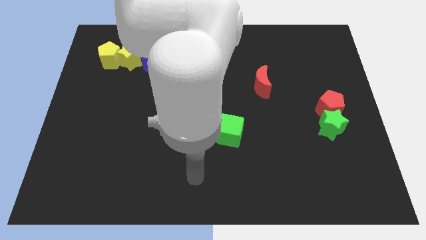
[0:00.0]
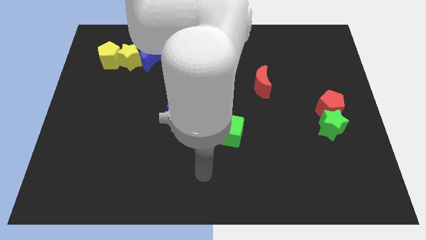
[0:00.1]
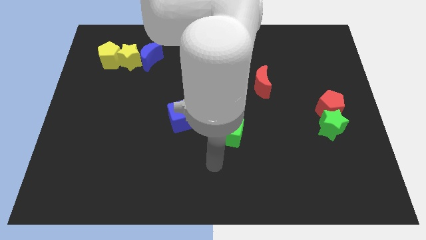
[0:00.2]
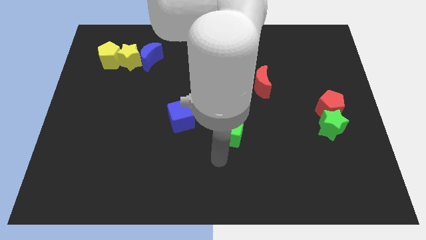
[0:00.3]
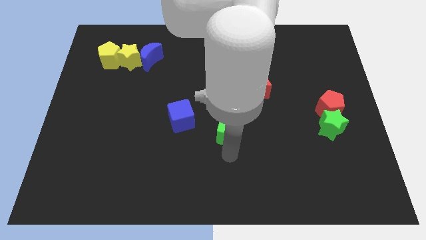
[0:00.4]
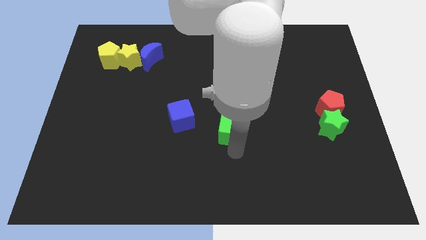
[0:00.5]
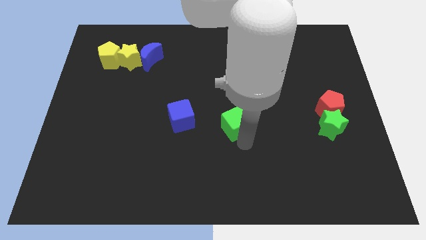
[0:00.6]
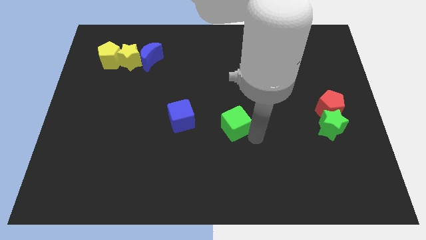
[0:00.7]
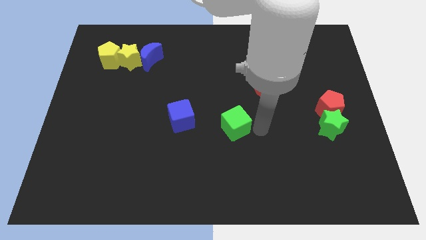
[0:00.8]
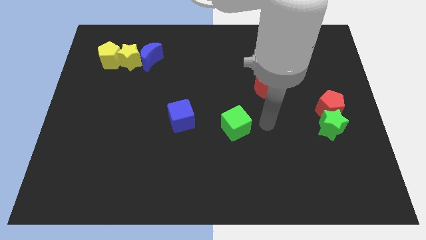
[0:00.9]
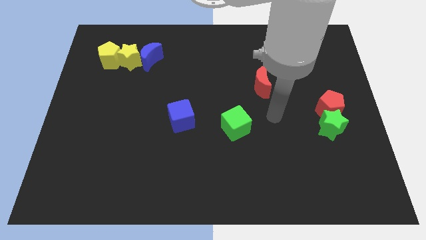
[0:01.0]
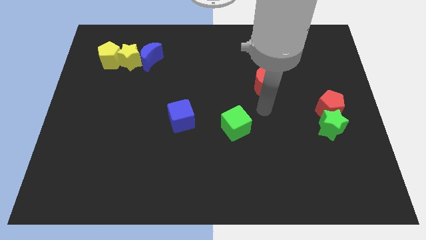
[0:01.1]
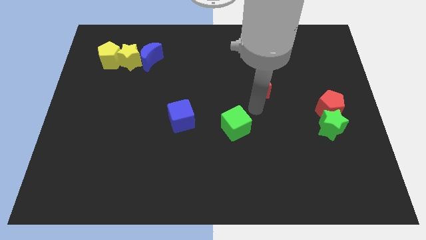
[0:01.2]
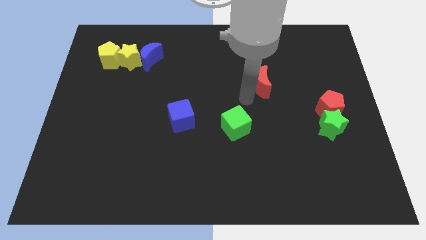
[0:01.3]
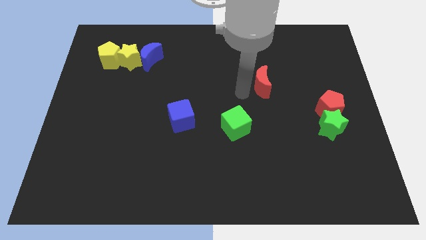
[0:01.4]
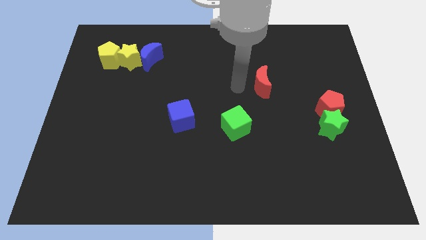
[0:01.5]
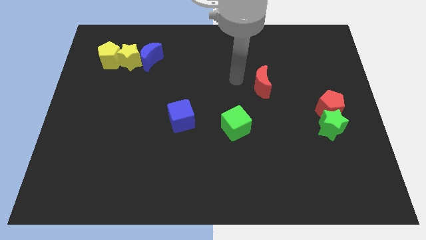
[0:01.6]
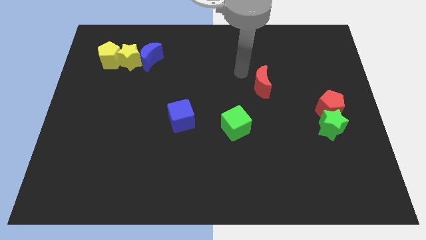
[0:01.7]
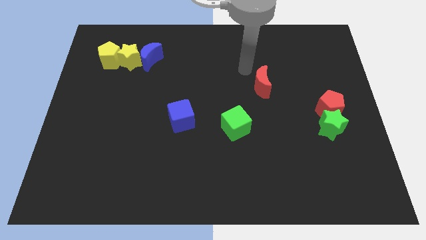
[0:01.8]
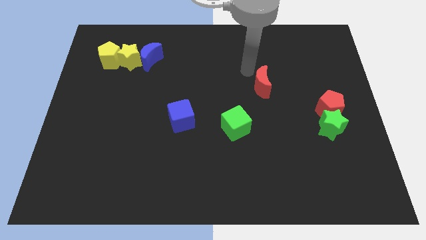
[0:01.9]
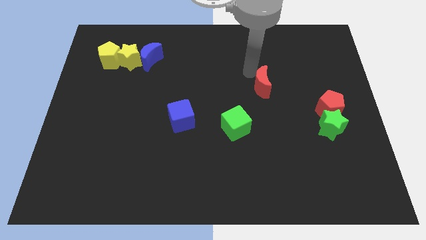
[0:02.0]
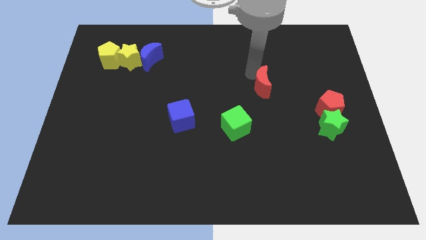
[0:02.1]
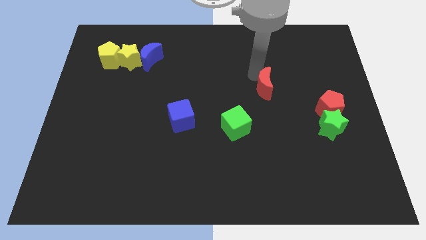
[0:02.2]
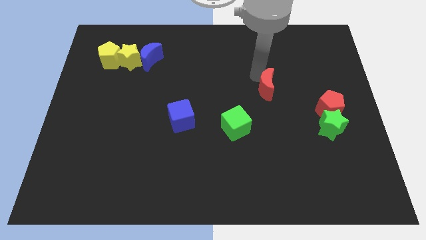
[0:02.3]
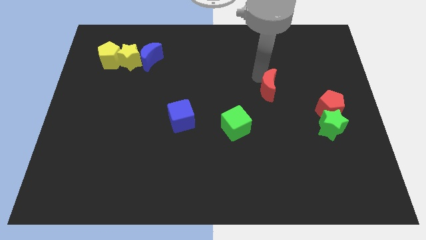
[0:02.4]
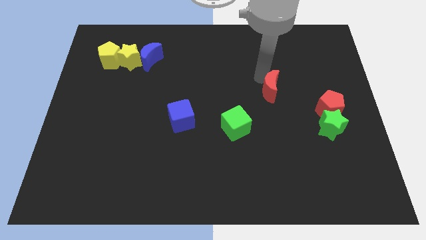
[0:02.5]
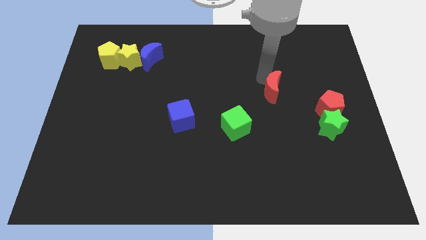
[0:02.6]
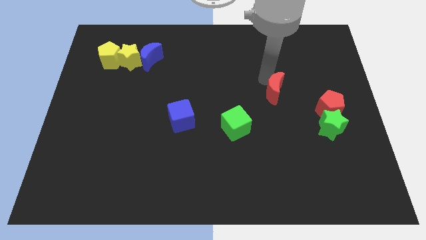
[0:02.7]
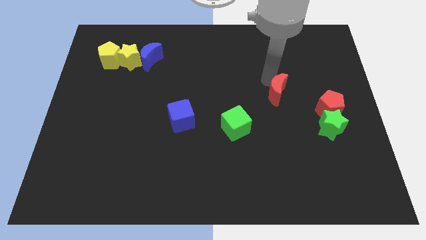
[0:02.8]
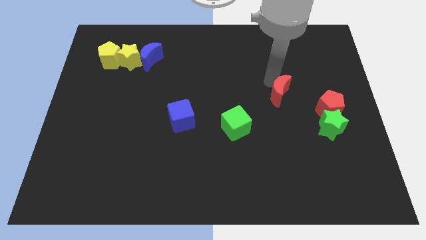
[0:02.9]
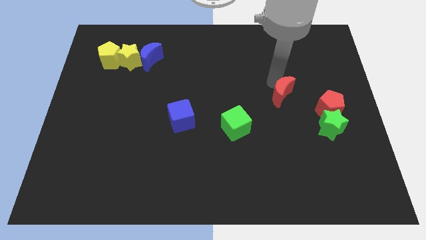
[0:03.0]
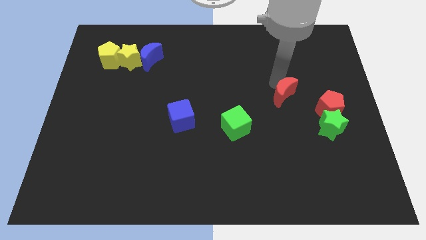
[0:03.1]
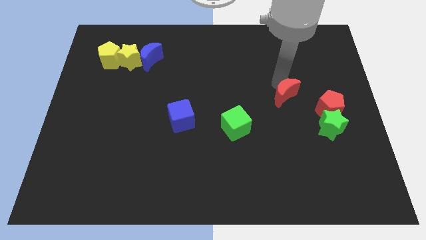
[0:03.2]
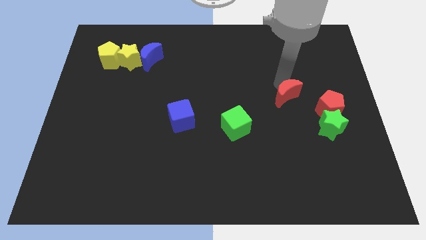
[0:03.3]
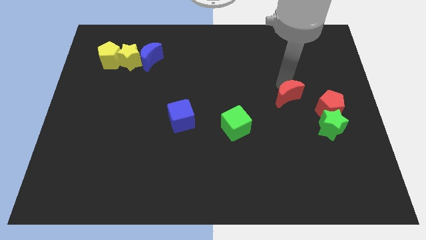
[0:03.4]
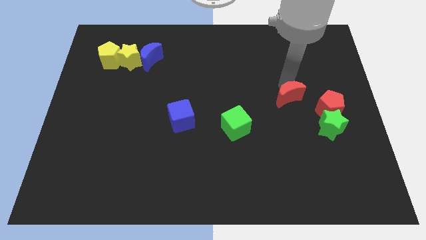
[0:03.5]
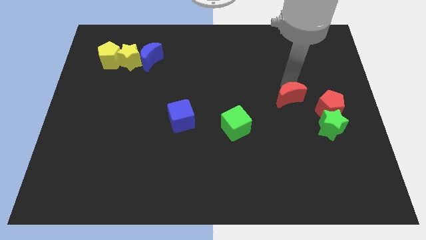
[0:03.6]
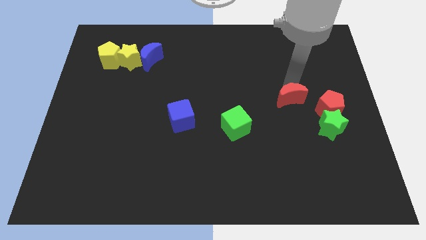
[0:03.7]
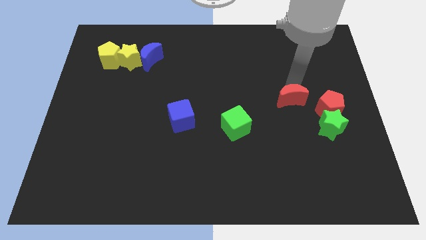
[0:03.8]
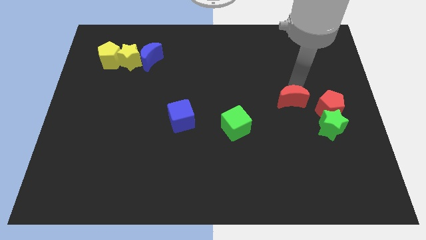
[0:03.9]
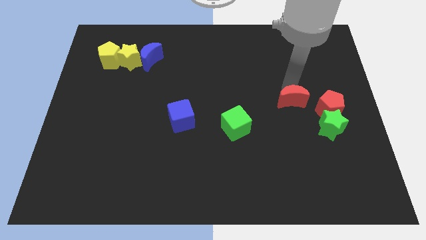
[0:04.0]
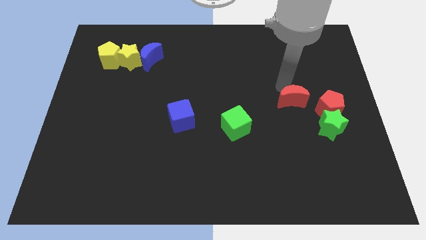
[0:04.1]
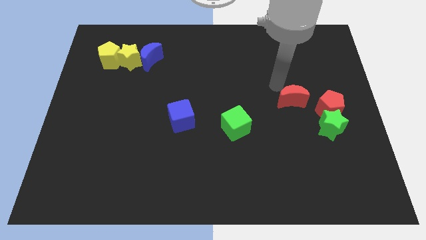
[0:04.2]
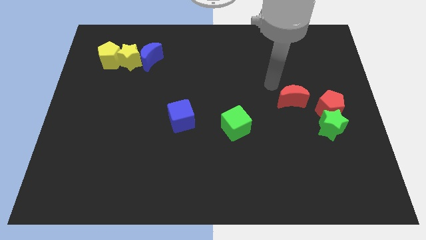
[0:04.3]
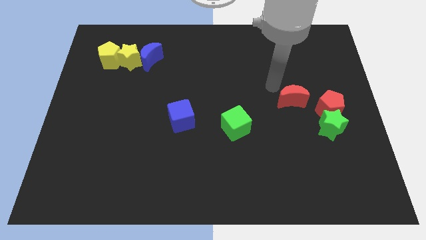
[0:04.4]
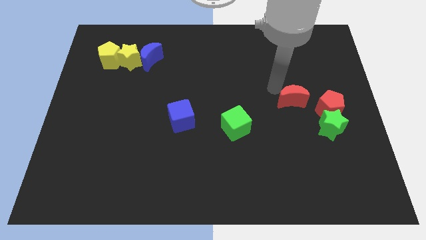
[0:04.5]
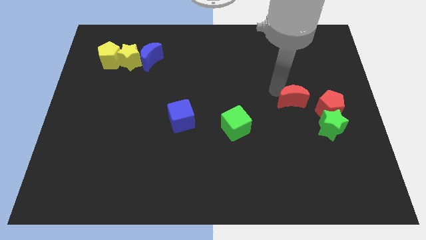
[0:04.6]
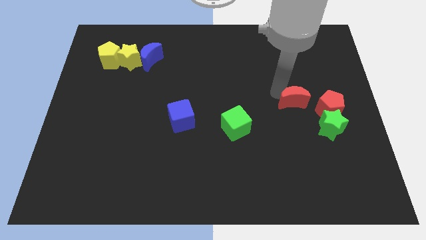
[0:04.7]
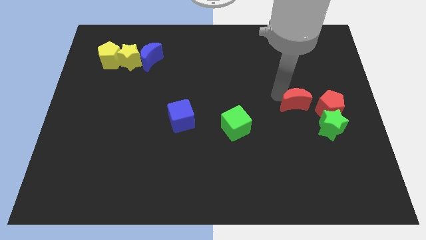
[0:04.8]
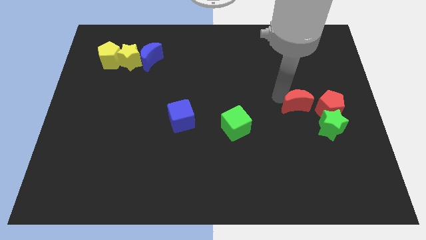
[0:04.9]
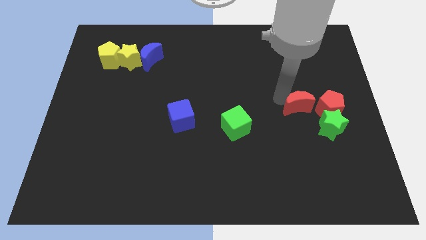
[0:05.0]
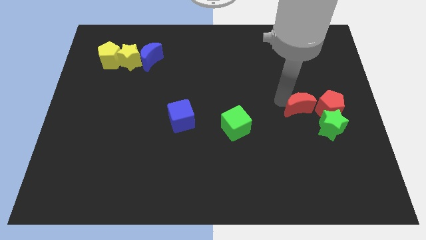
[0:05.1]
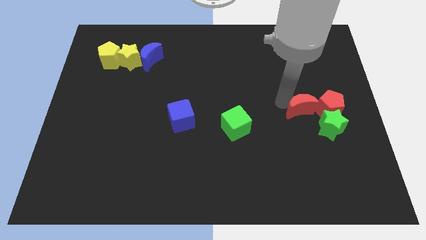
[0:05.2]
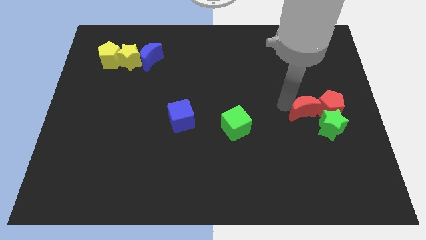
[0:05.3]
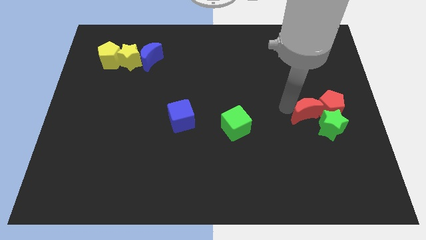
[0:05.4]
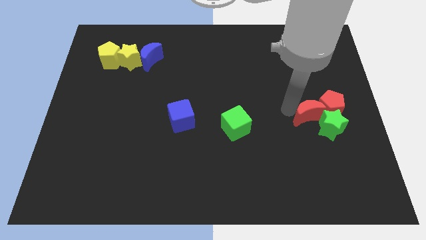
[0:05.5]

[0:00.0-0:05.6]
slide the red moon close to the green star

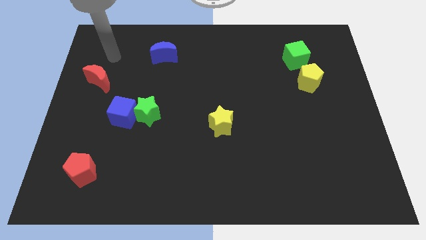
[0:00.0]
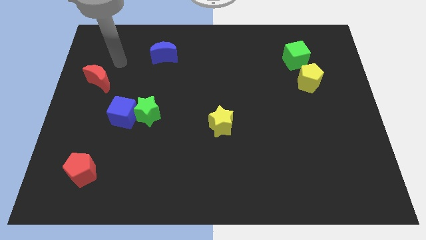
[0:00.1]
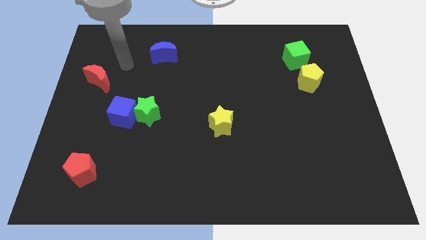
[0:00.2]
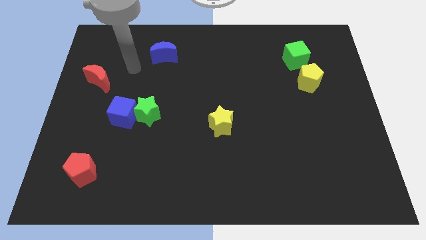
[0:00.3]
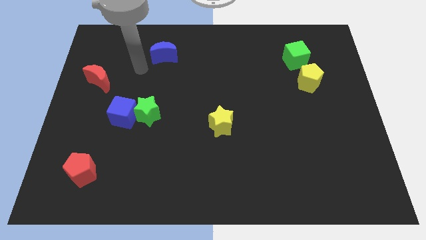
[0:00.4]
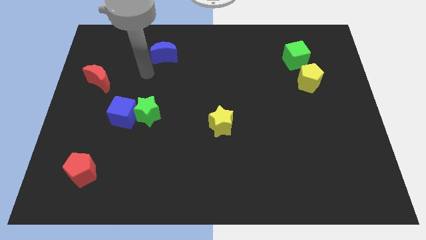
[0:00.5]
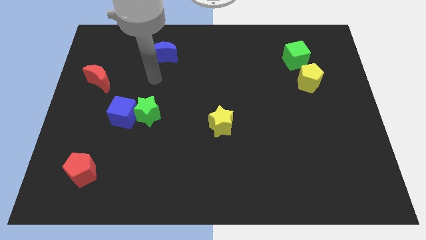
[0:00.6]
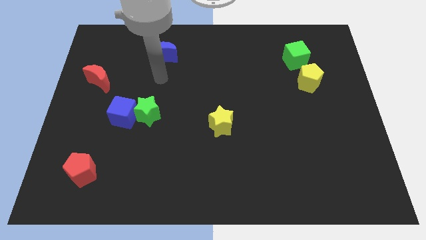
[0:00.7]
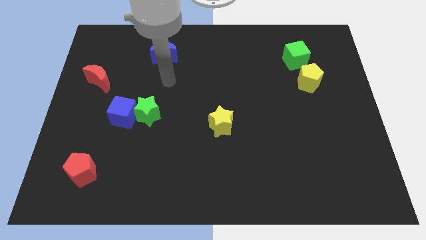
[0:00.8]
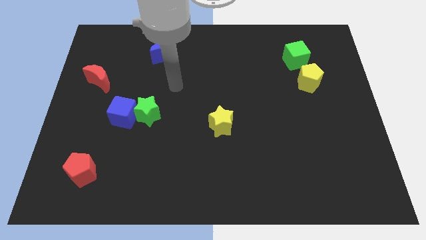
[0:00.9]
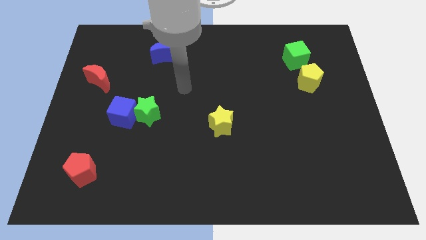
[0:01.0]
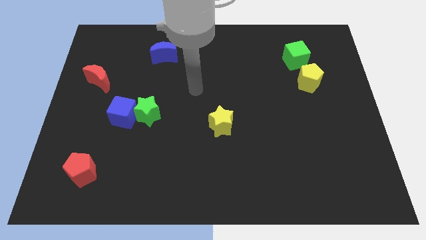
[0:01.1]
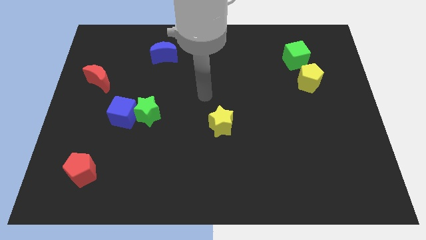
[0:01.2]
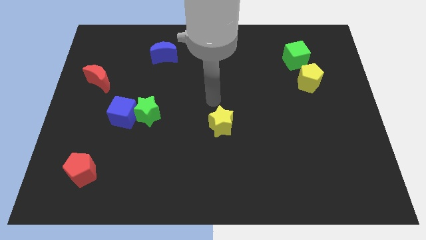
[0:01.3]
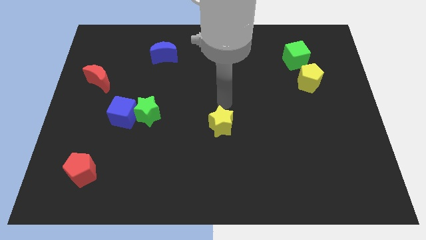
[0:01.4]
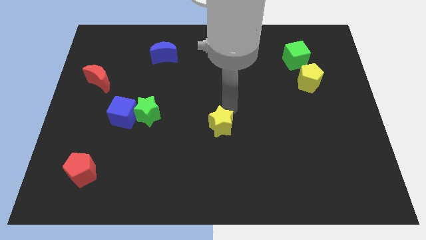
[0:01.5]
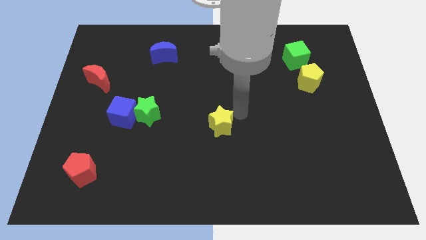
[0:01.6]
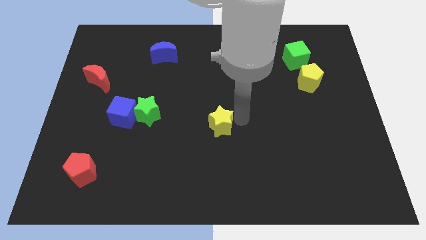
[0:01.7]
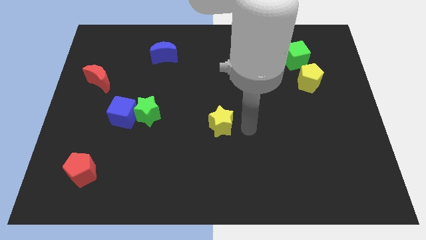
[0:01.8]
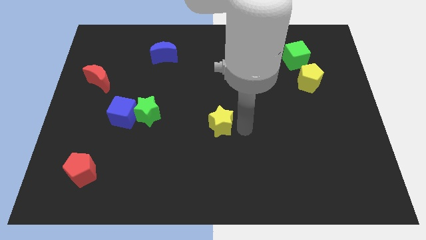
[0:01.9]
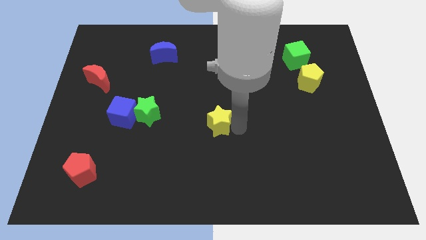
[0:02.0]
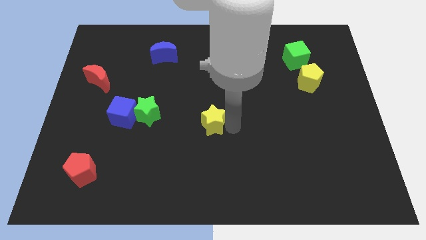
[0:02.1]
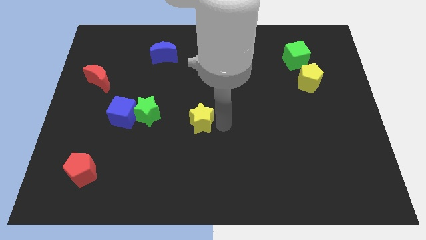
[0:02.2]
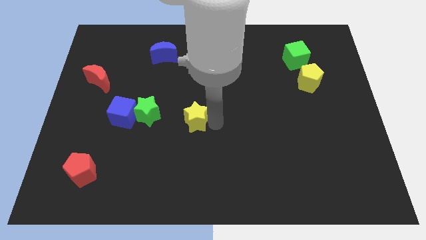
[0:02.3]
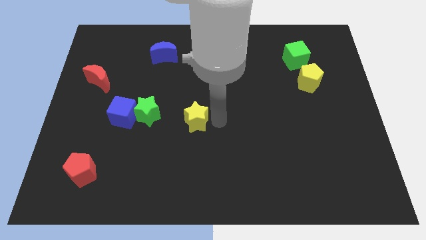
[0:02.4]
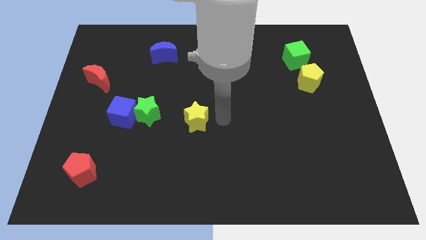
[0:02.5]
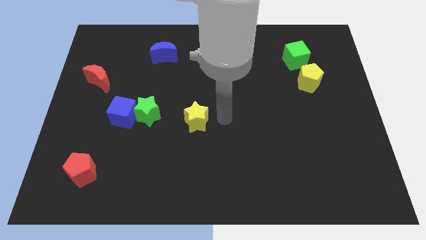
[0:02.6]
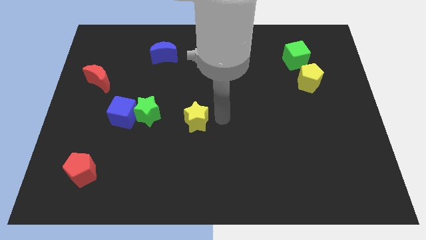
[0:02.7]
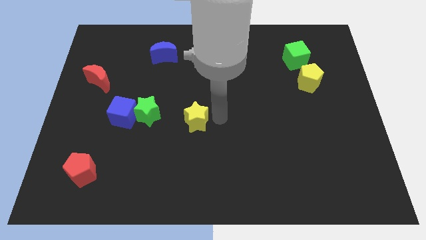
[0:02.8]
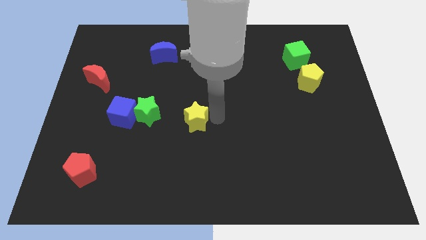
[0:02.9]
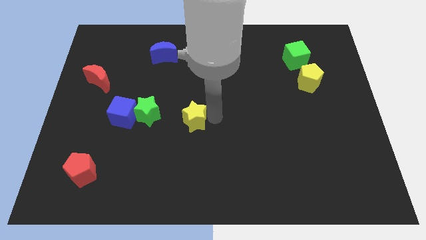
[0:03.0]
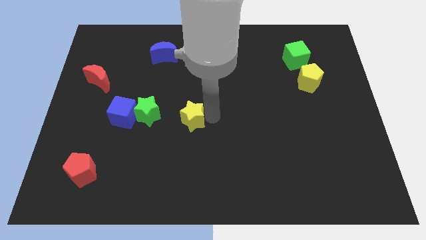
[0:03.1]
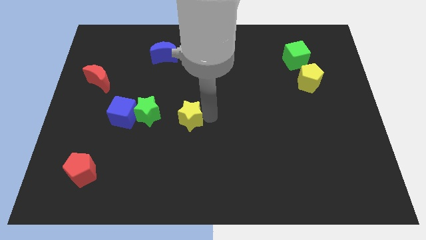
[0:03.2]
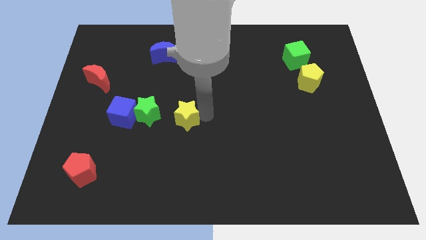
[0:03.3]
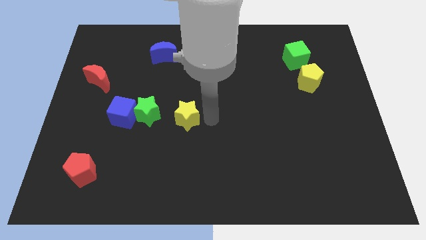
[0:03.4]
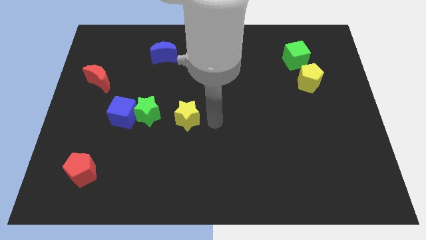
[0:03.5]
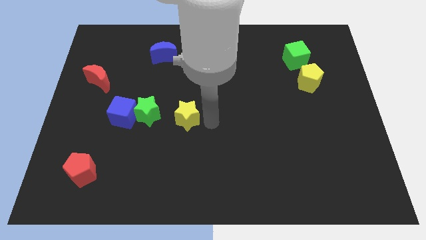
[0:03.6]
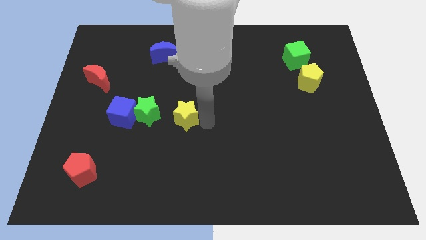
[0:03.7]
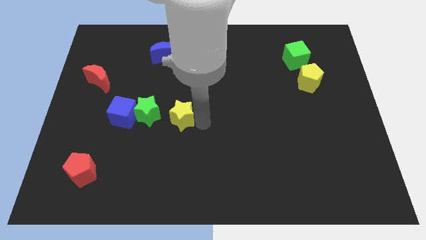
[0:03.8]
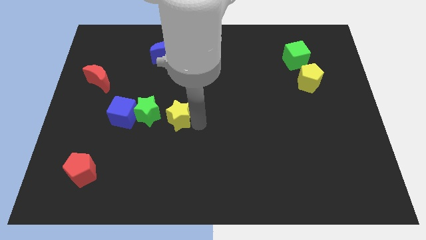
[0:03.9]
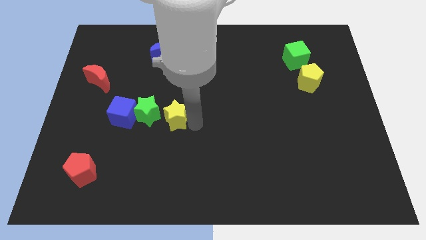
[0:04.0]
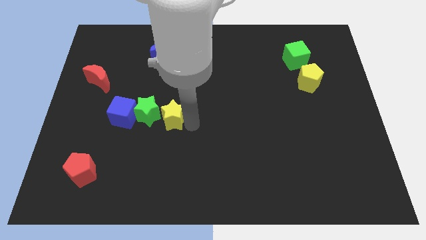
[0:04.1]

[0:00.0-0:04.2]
move the yellow star towards the green star
